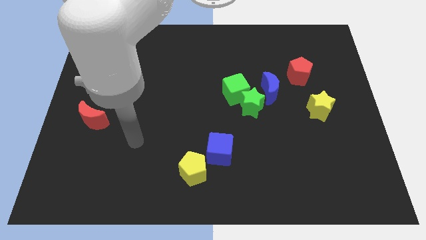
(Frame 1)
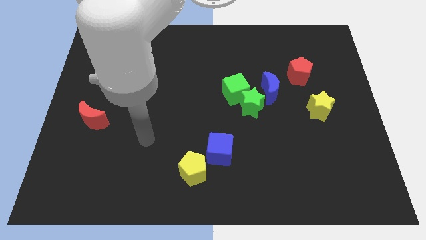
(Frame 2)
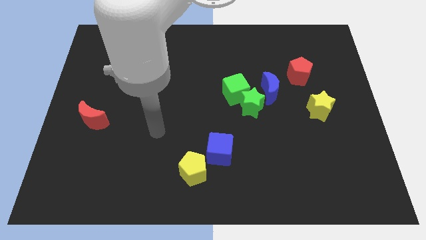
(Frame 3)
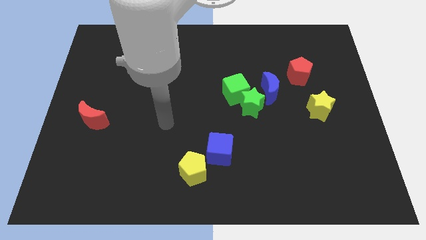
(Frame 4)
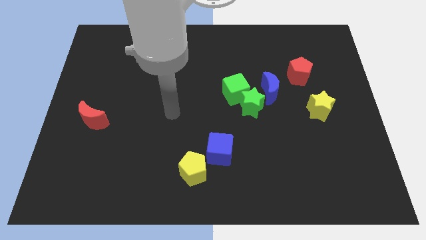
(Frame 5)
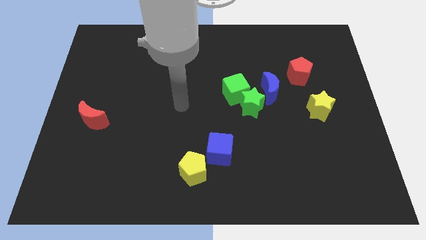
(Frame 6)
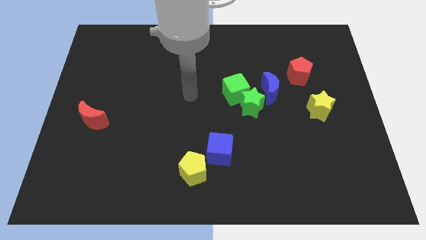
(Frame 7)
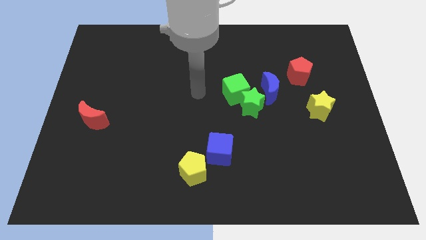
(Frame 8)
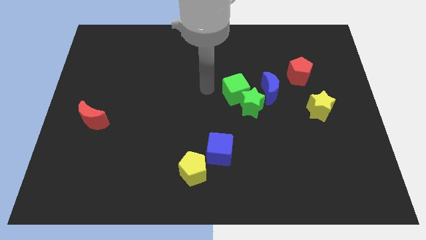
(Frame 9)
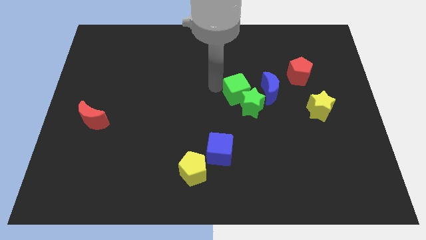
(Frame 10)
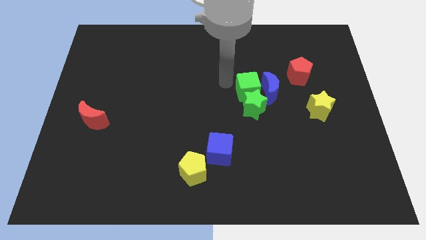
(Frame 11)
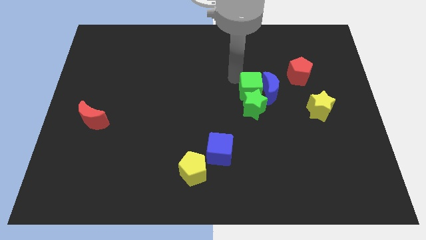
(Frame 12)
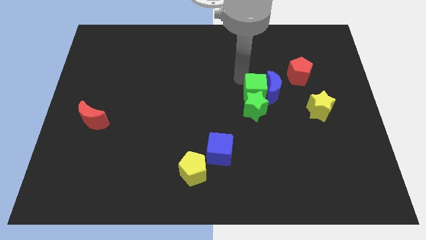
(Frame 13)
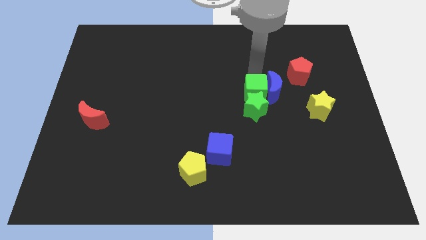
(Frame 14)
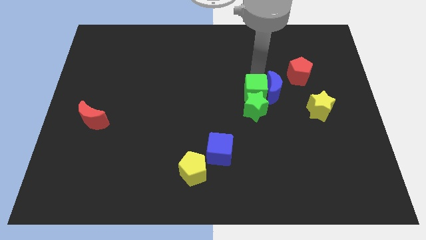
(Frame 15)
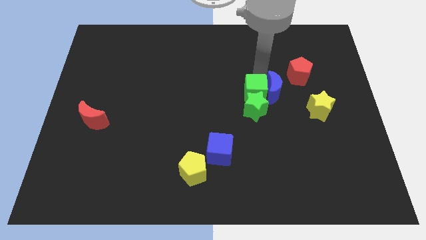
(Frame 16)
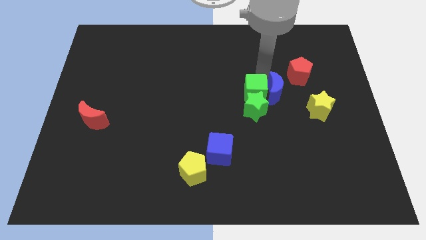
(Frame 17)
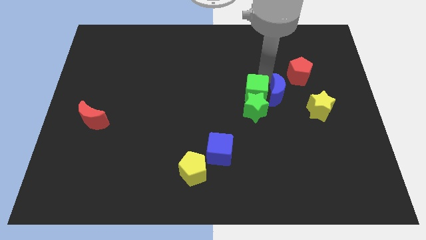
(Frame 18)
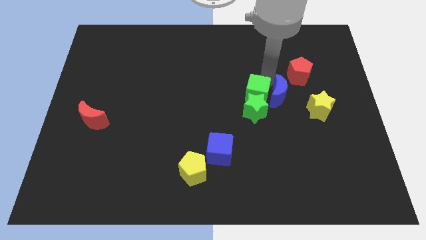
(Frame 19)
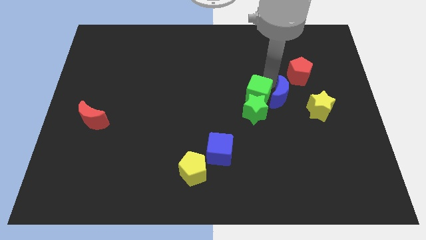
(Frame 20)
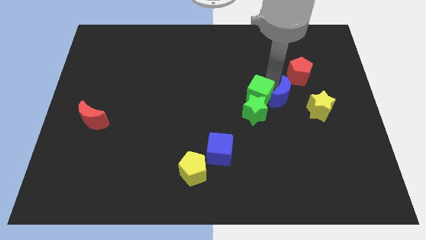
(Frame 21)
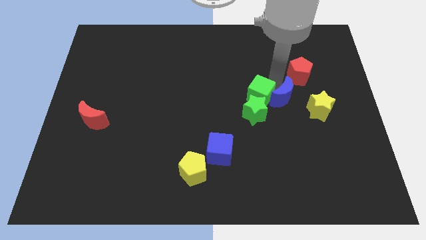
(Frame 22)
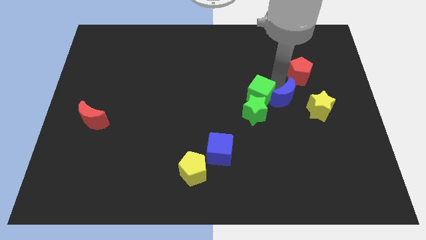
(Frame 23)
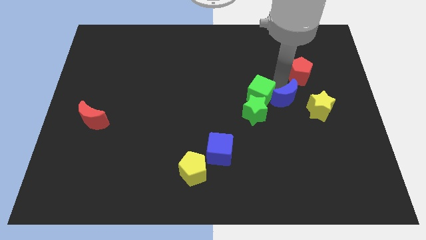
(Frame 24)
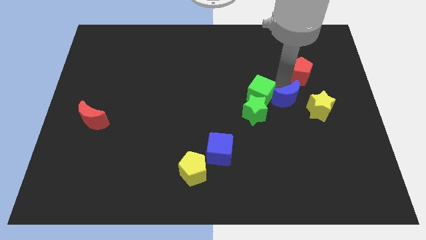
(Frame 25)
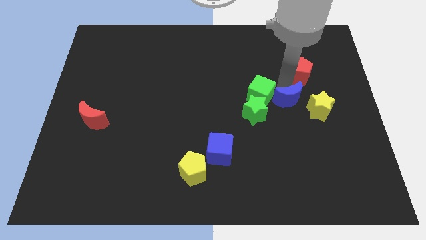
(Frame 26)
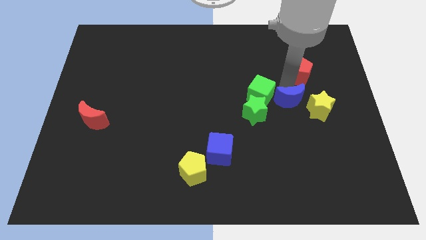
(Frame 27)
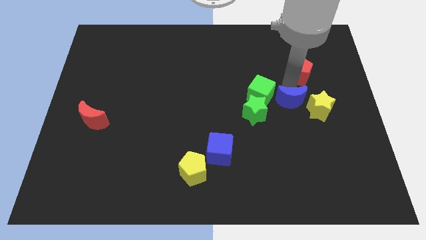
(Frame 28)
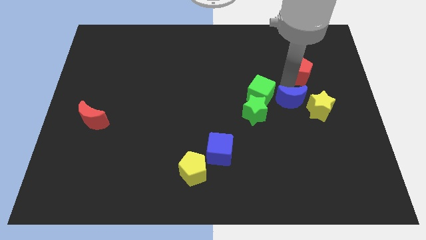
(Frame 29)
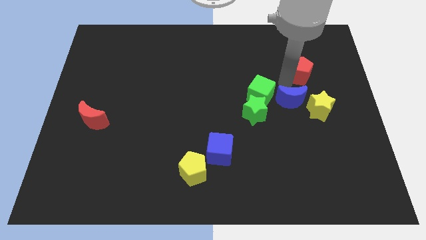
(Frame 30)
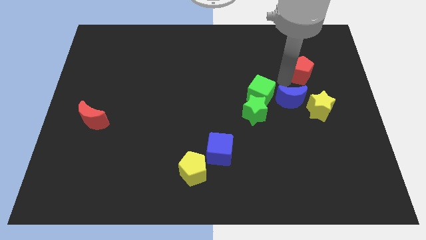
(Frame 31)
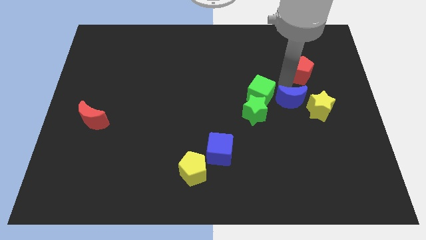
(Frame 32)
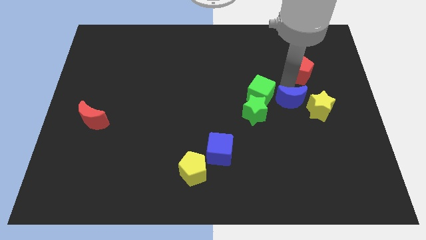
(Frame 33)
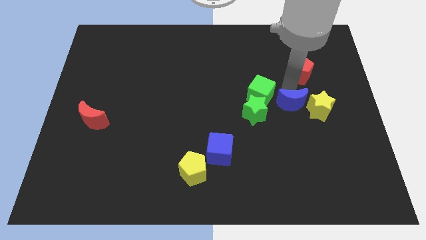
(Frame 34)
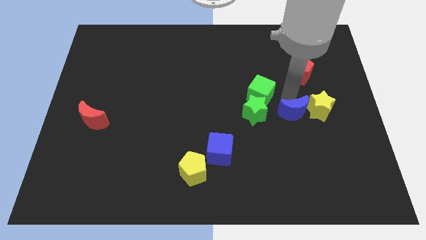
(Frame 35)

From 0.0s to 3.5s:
slightly slide the blue moon down and to the right

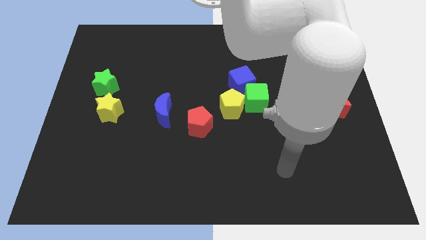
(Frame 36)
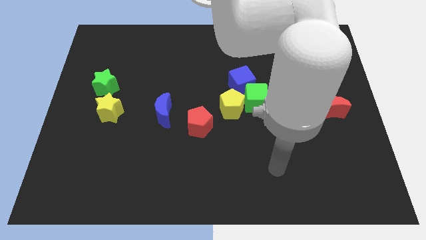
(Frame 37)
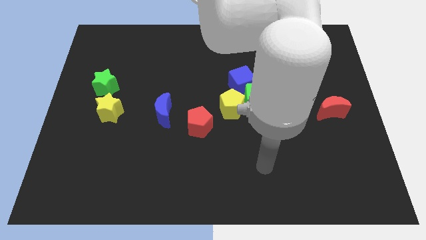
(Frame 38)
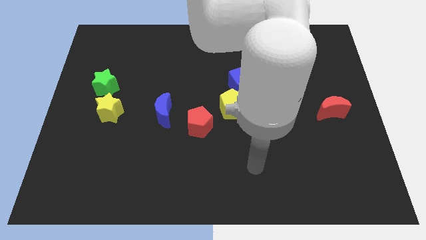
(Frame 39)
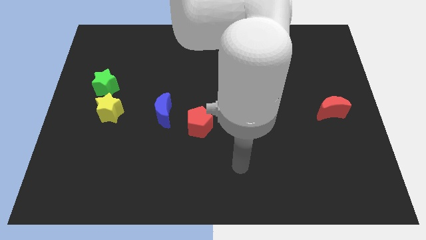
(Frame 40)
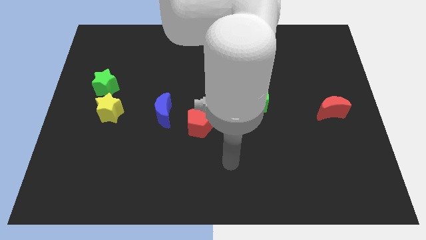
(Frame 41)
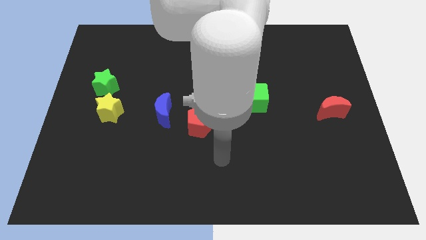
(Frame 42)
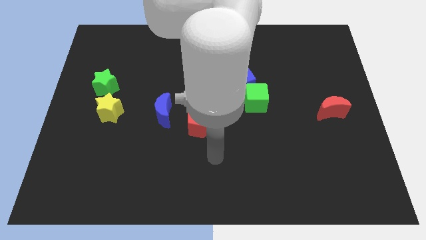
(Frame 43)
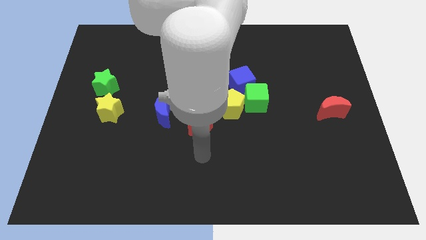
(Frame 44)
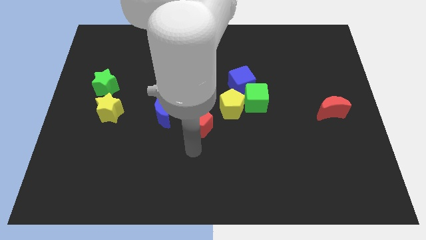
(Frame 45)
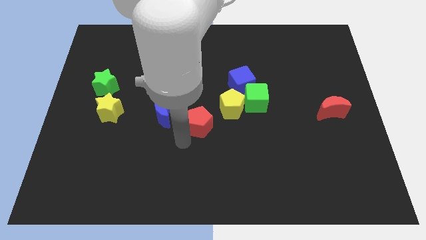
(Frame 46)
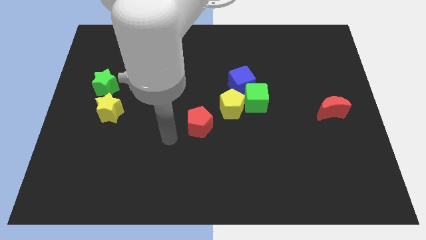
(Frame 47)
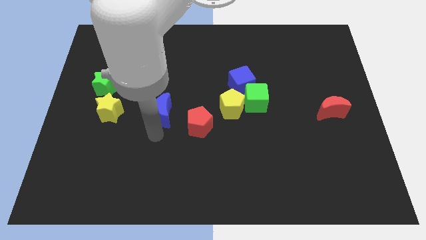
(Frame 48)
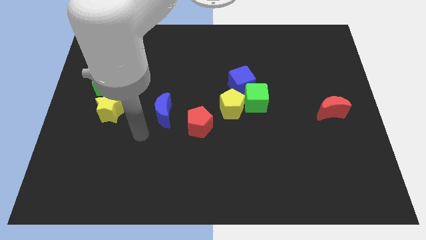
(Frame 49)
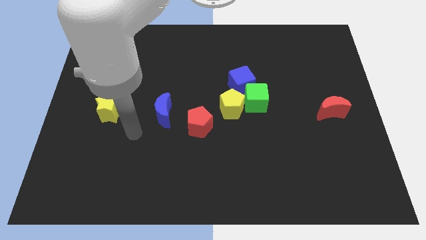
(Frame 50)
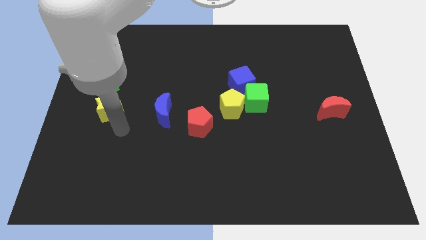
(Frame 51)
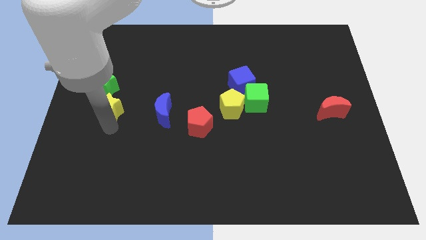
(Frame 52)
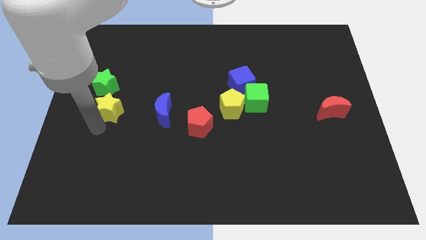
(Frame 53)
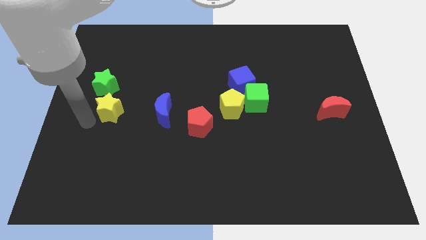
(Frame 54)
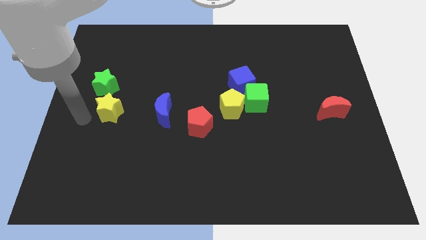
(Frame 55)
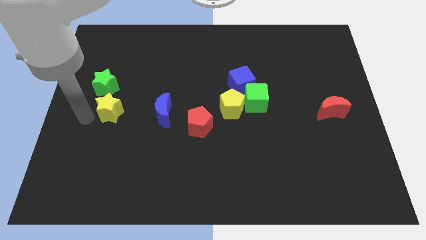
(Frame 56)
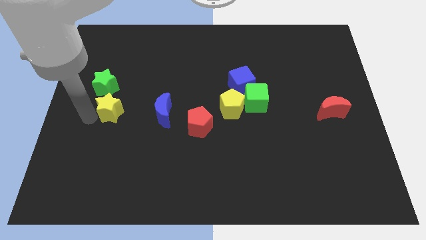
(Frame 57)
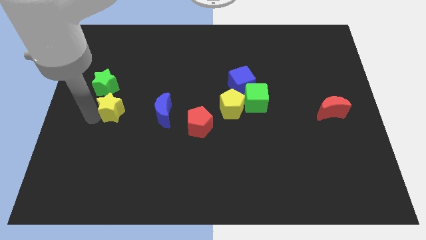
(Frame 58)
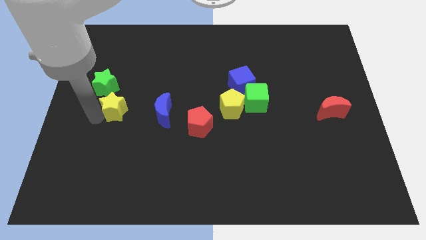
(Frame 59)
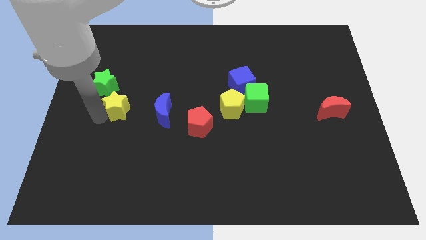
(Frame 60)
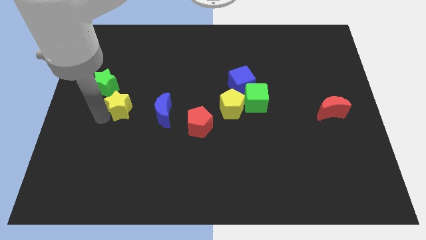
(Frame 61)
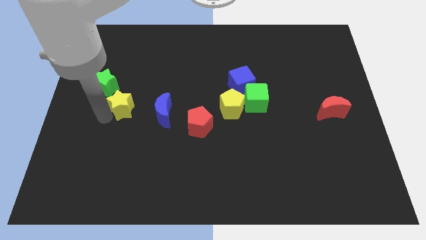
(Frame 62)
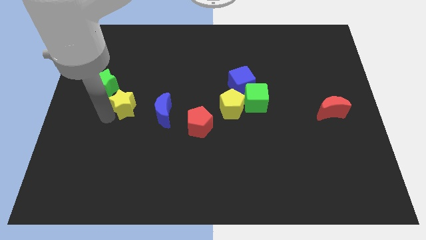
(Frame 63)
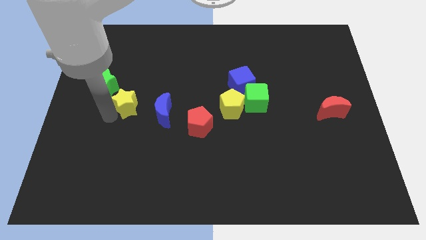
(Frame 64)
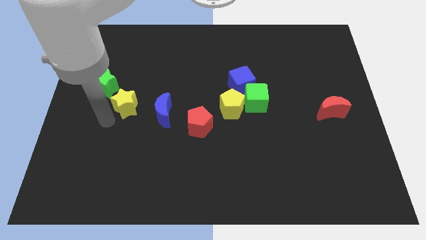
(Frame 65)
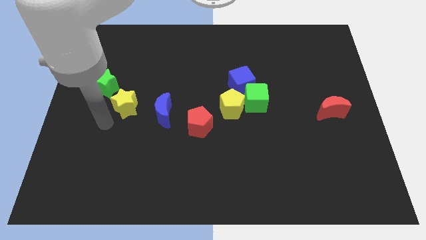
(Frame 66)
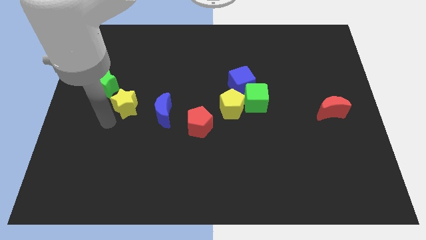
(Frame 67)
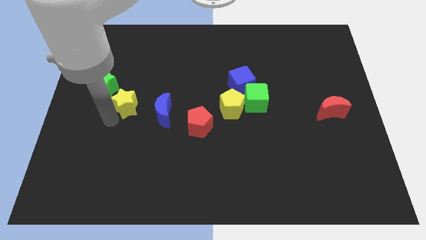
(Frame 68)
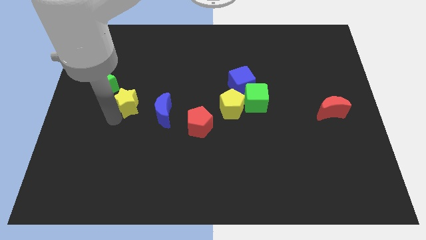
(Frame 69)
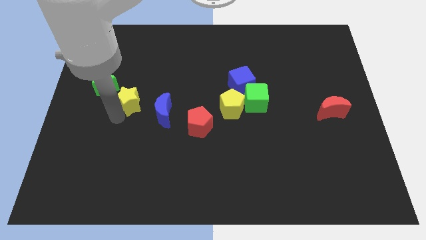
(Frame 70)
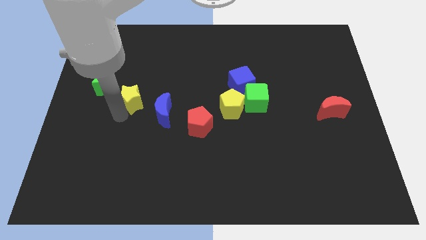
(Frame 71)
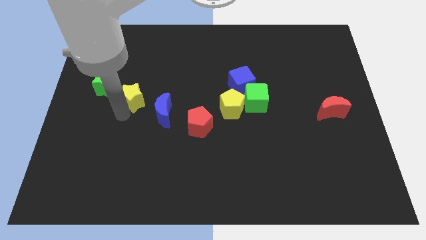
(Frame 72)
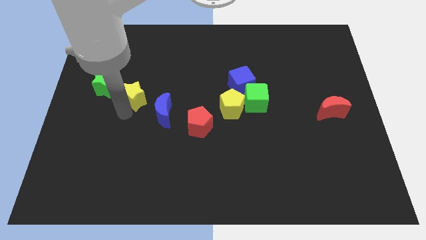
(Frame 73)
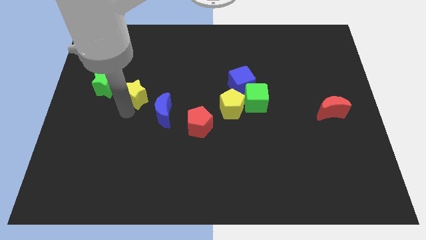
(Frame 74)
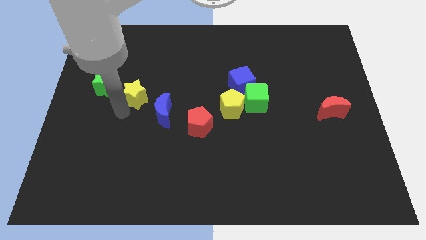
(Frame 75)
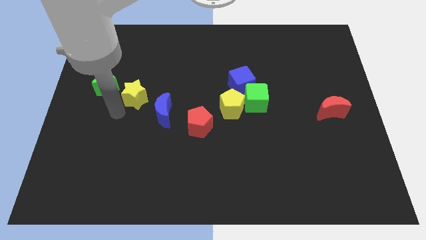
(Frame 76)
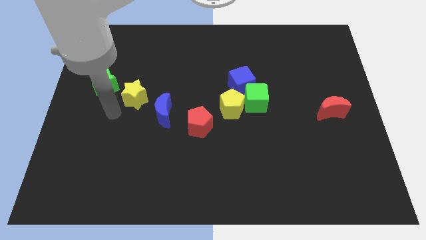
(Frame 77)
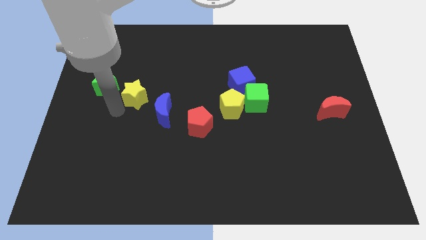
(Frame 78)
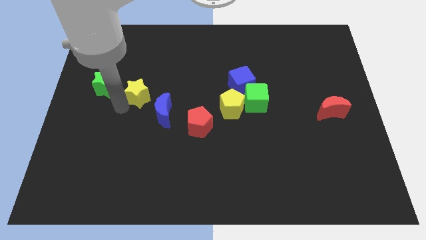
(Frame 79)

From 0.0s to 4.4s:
slide the yellow star a bit upwards and right
